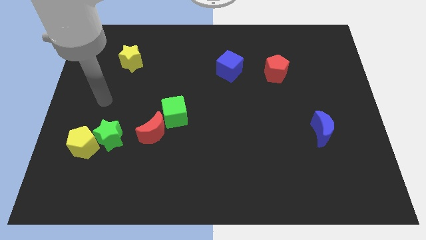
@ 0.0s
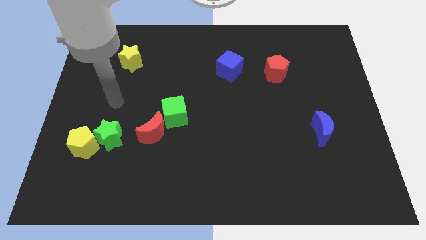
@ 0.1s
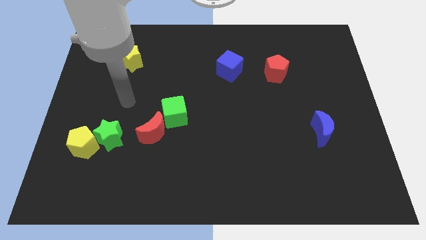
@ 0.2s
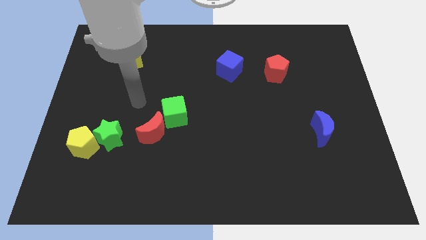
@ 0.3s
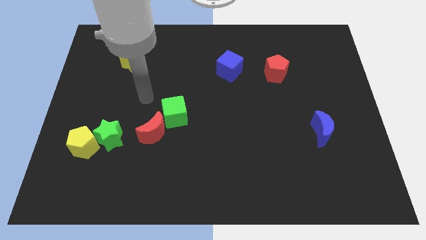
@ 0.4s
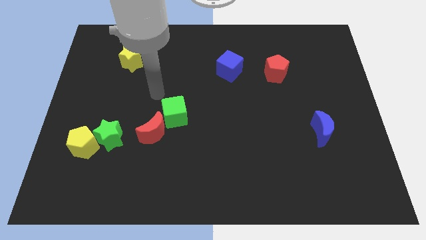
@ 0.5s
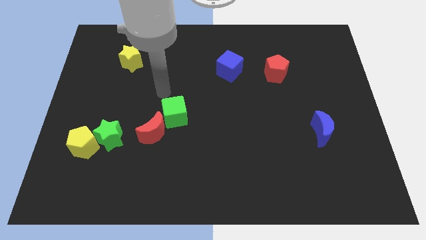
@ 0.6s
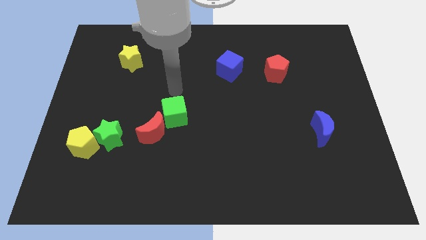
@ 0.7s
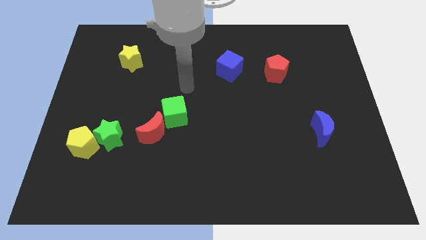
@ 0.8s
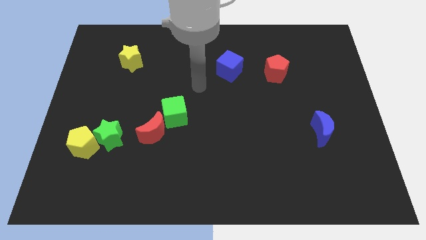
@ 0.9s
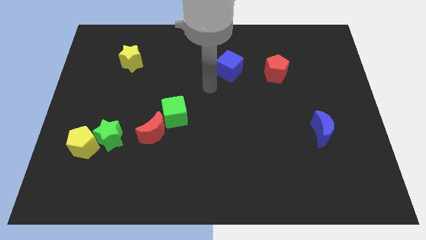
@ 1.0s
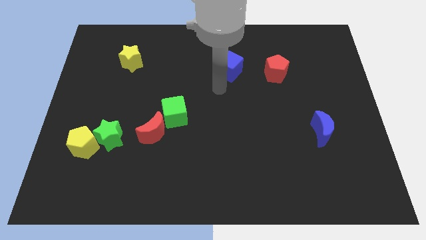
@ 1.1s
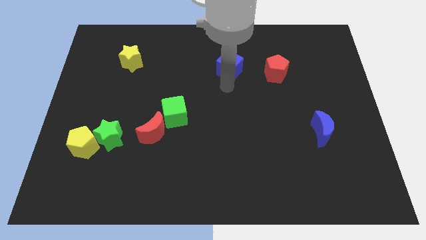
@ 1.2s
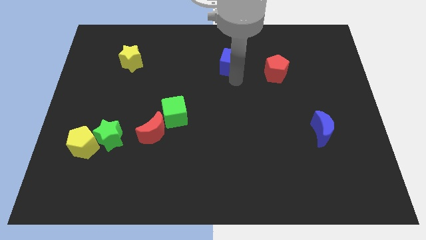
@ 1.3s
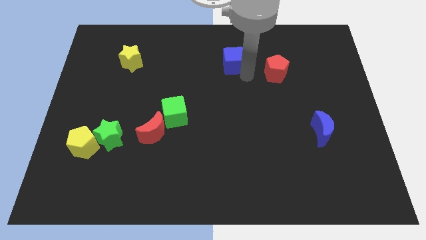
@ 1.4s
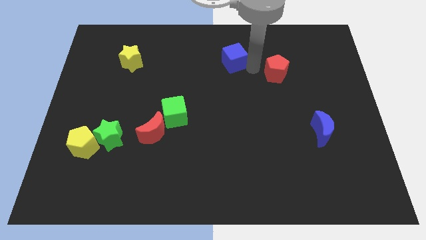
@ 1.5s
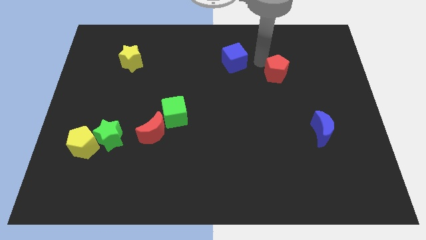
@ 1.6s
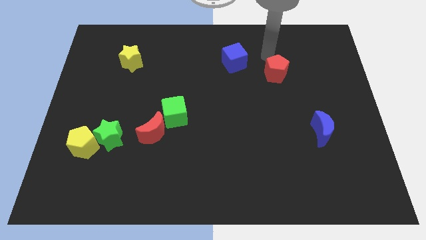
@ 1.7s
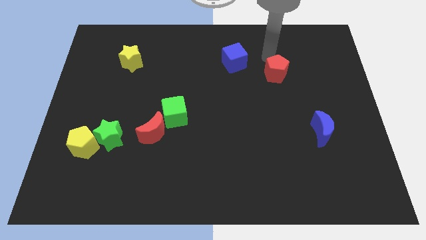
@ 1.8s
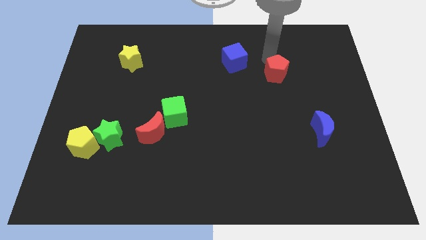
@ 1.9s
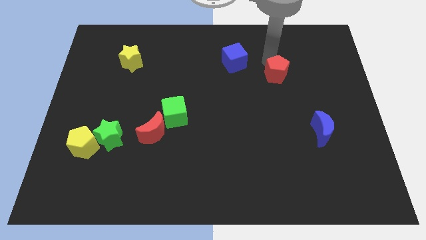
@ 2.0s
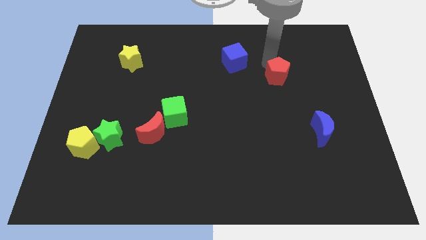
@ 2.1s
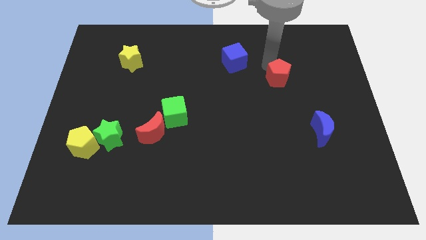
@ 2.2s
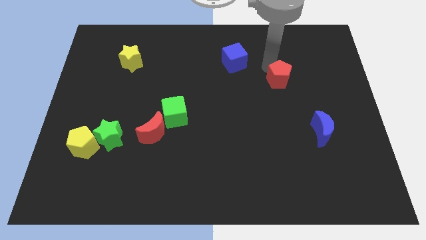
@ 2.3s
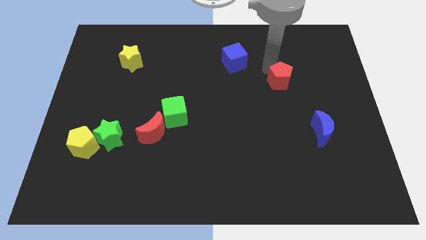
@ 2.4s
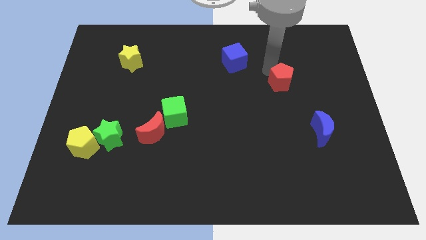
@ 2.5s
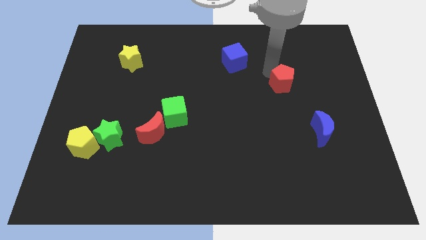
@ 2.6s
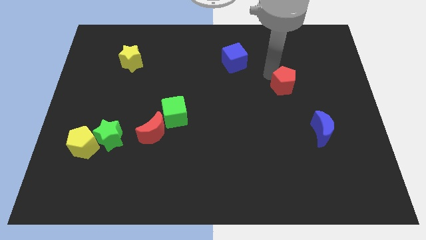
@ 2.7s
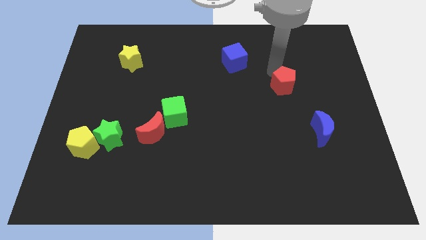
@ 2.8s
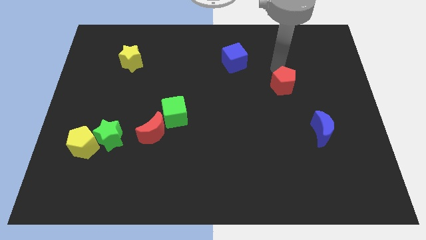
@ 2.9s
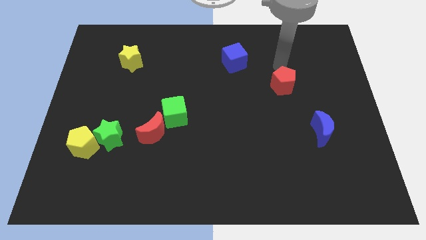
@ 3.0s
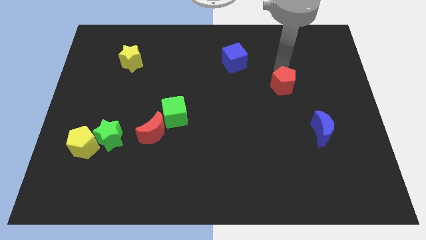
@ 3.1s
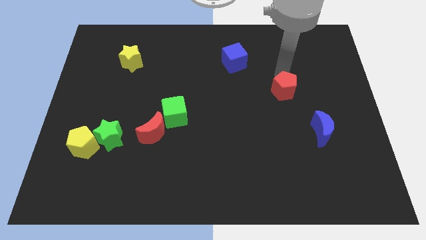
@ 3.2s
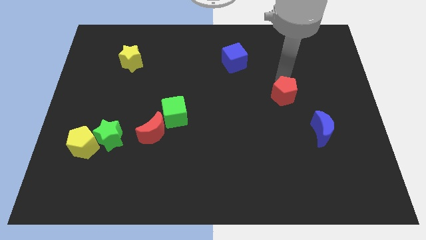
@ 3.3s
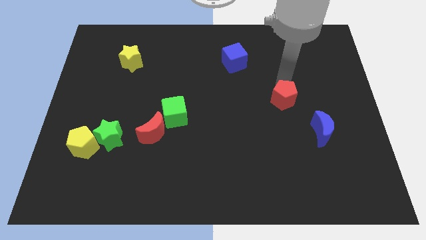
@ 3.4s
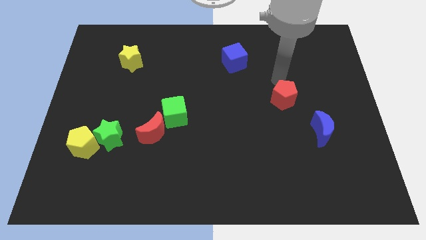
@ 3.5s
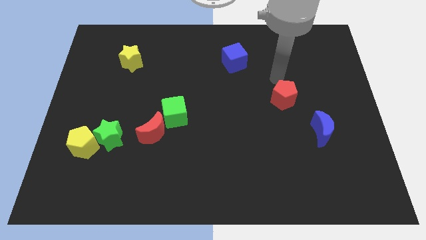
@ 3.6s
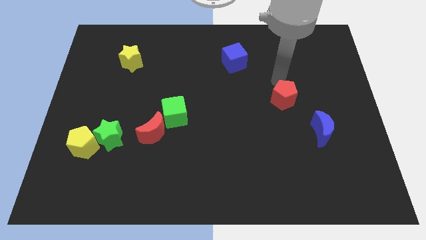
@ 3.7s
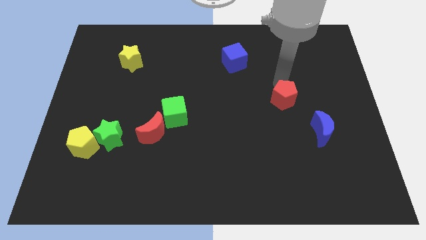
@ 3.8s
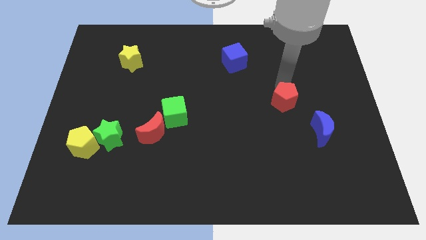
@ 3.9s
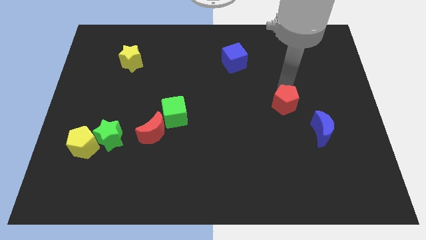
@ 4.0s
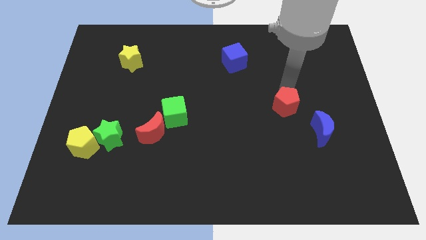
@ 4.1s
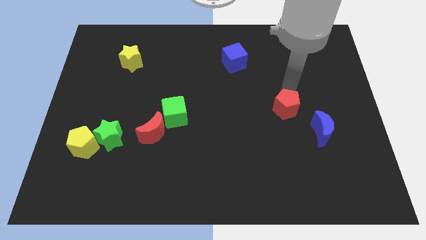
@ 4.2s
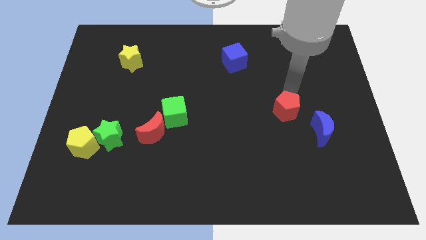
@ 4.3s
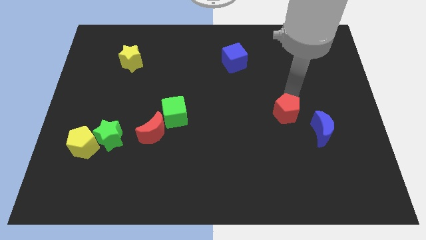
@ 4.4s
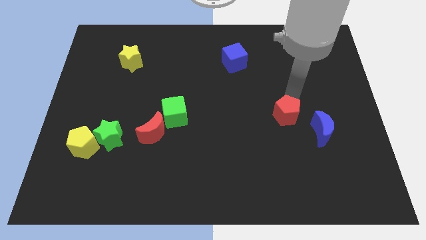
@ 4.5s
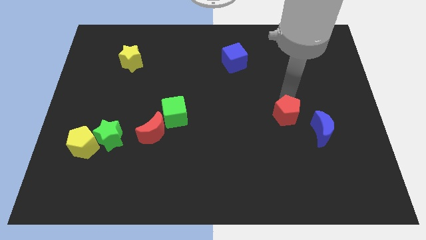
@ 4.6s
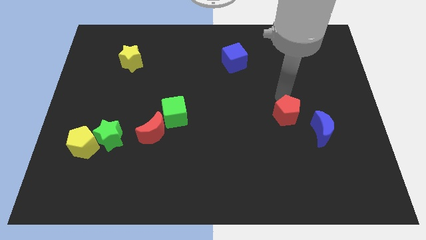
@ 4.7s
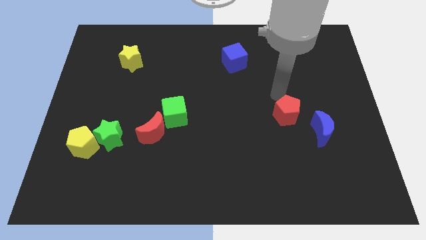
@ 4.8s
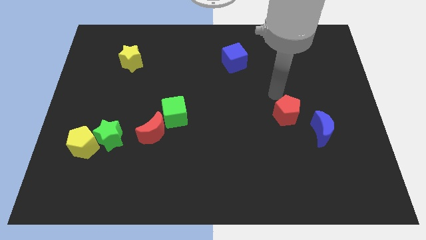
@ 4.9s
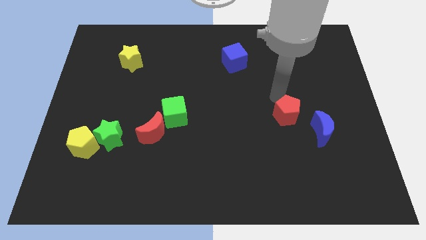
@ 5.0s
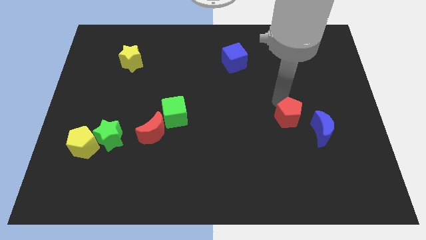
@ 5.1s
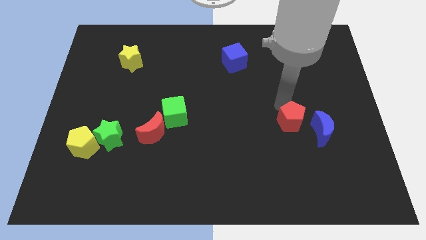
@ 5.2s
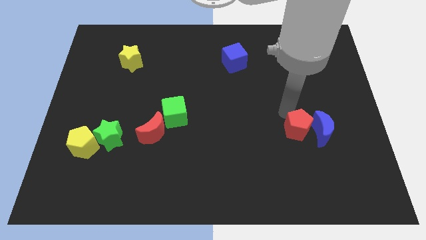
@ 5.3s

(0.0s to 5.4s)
push the red pentagon to the bottom left of the blue moon

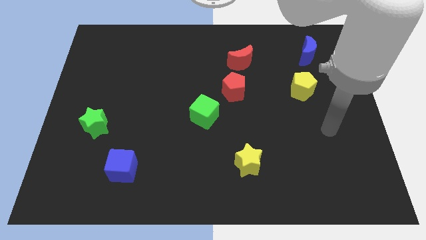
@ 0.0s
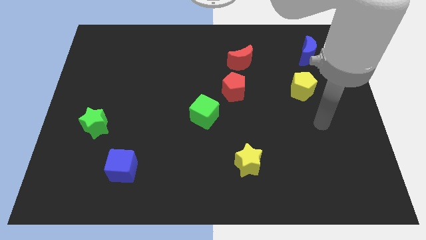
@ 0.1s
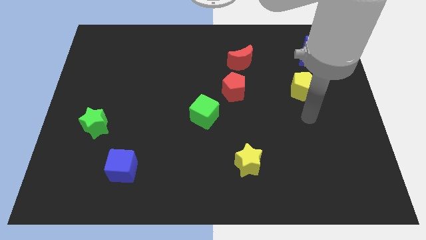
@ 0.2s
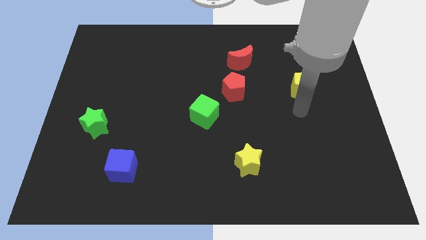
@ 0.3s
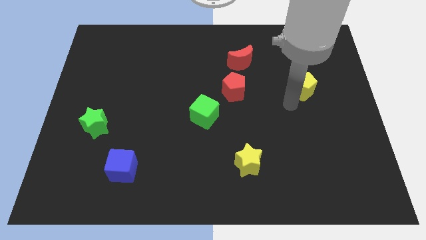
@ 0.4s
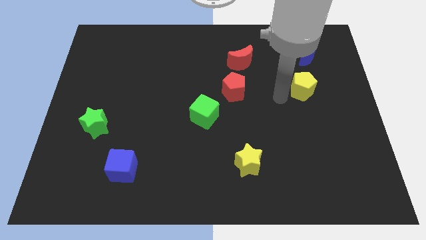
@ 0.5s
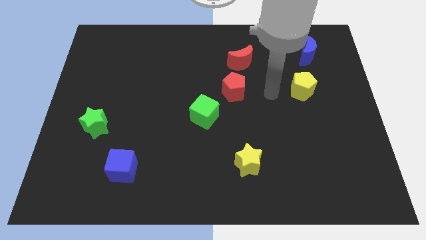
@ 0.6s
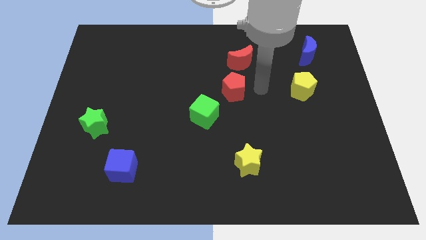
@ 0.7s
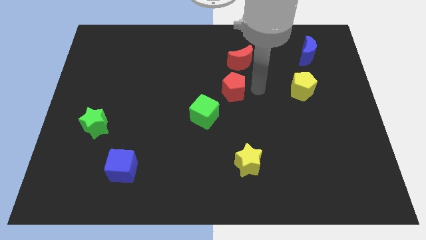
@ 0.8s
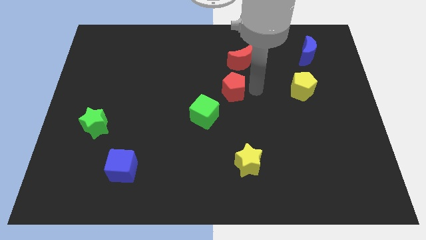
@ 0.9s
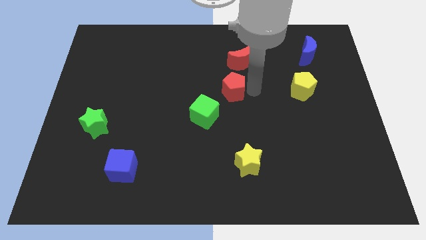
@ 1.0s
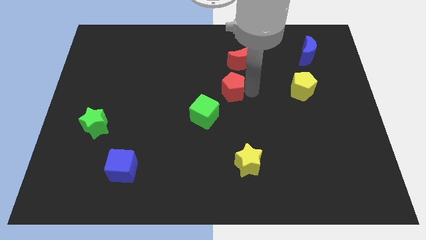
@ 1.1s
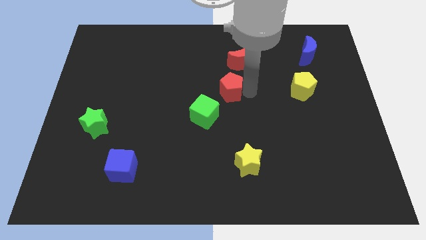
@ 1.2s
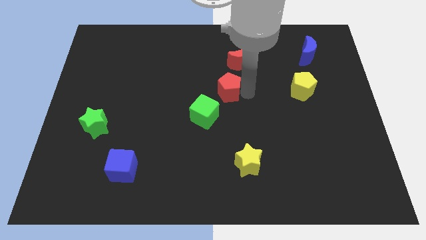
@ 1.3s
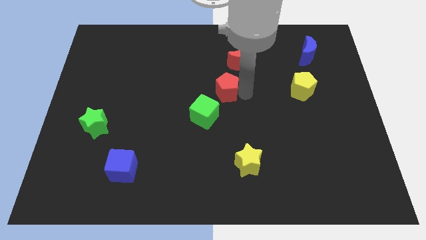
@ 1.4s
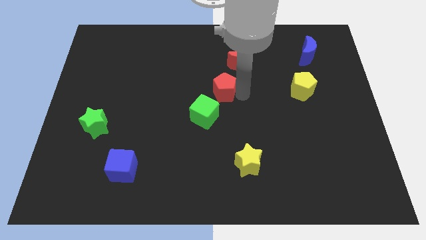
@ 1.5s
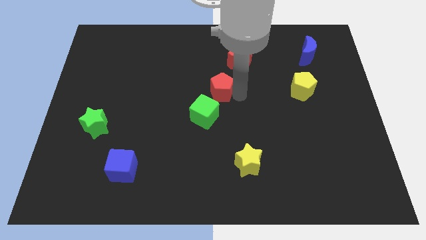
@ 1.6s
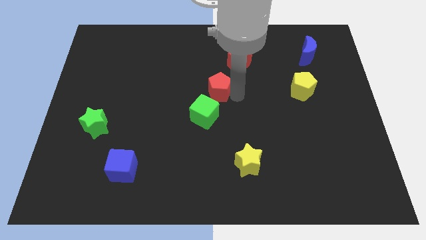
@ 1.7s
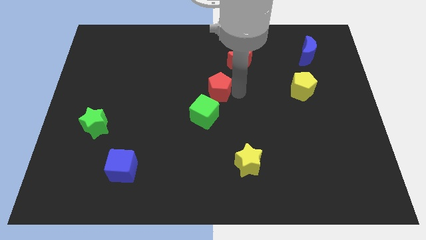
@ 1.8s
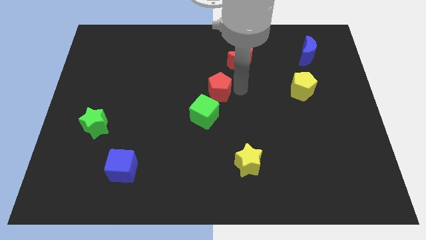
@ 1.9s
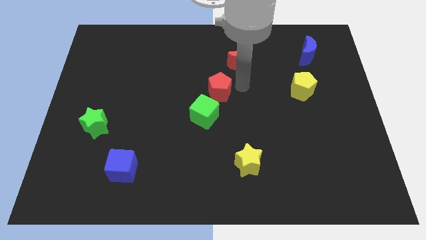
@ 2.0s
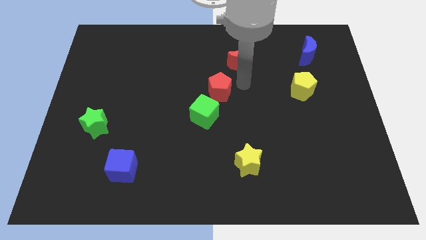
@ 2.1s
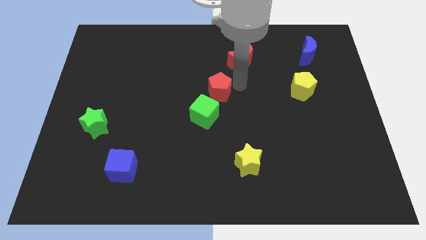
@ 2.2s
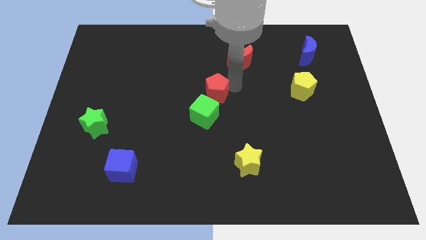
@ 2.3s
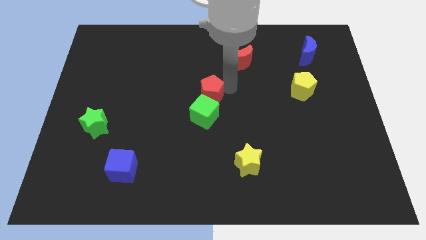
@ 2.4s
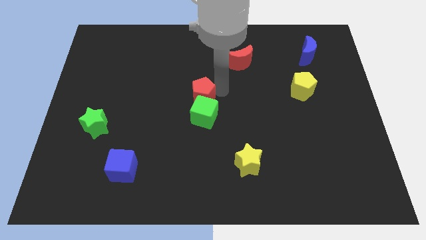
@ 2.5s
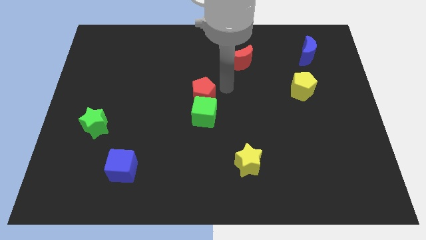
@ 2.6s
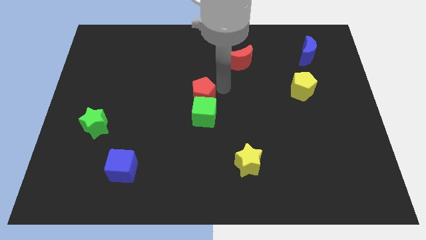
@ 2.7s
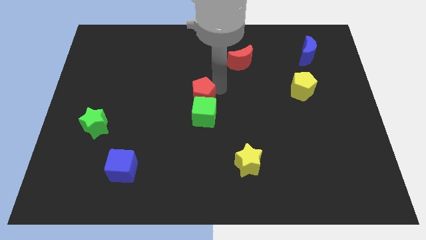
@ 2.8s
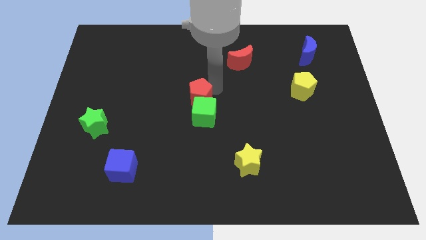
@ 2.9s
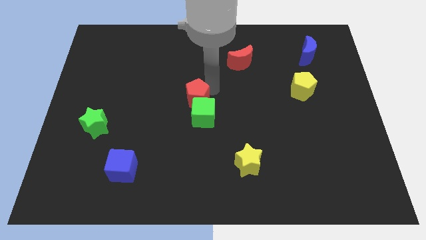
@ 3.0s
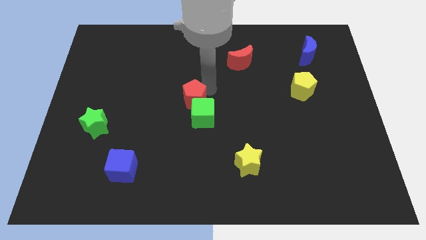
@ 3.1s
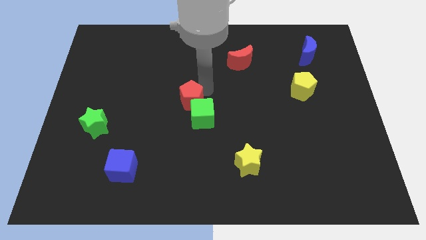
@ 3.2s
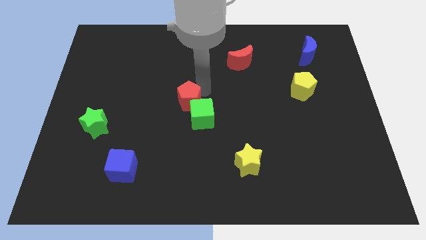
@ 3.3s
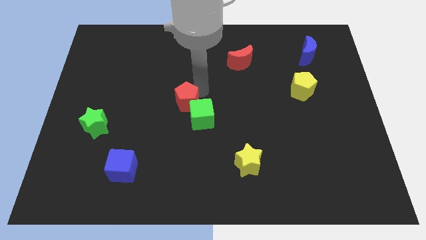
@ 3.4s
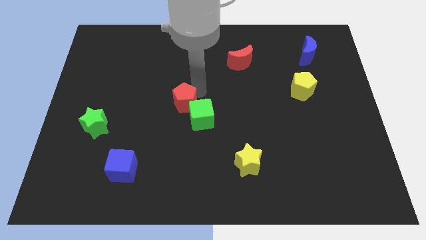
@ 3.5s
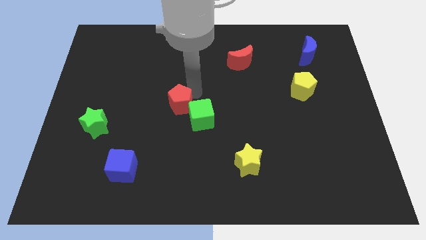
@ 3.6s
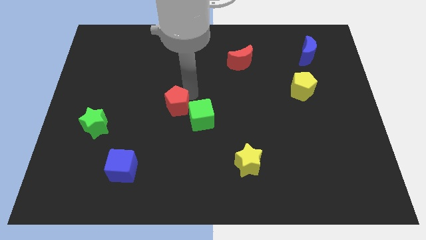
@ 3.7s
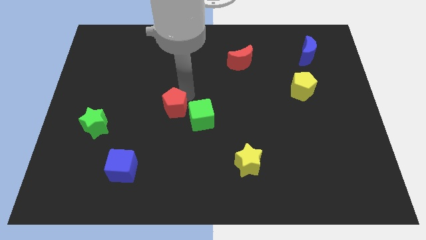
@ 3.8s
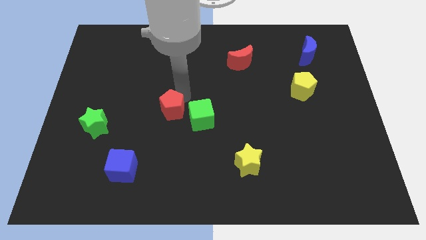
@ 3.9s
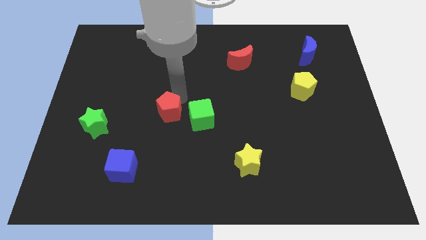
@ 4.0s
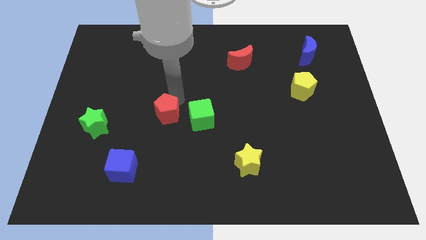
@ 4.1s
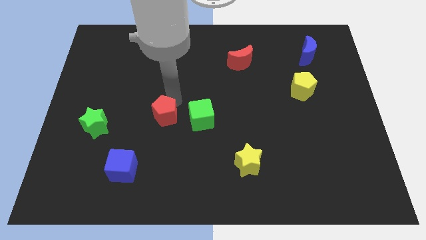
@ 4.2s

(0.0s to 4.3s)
put the red pentagon right of the green star
